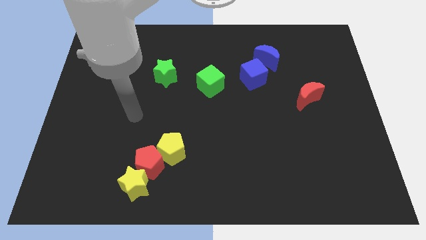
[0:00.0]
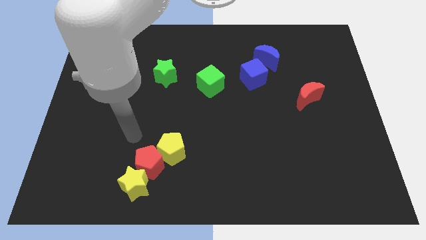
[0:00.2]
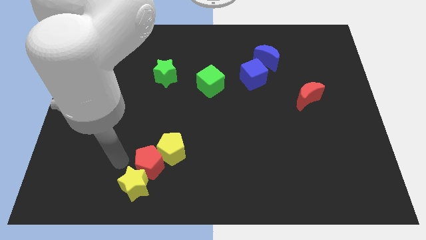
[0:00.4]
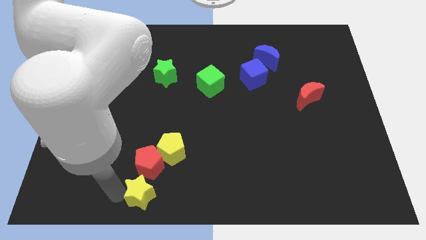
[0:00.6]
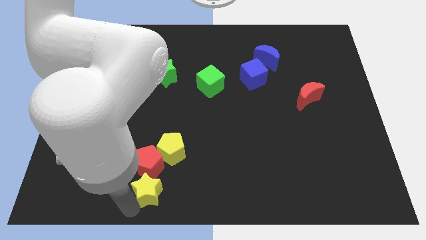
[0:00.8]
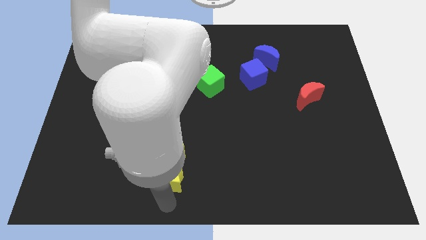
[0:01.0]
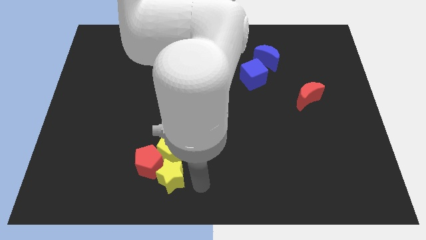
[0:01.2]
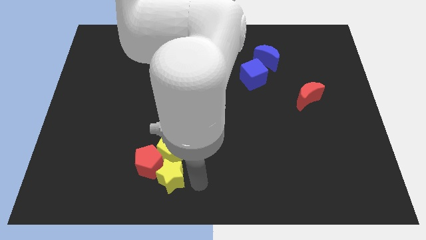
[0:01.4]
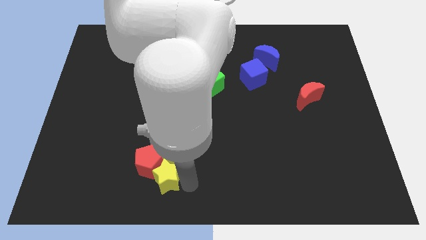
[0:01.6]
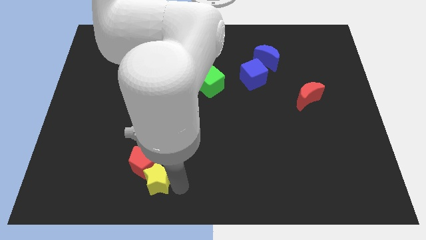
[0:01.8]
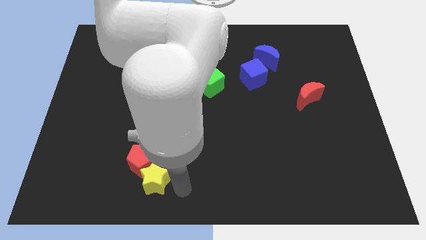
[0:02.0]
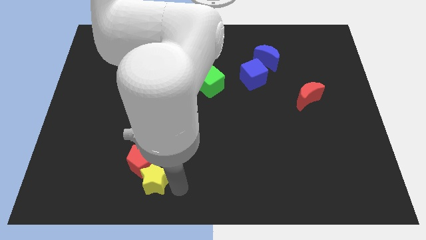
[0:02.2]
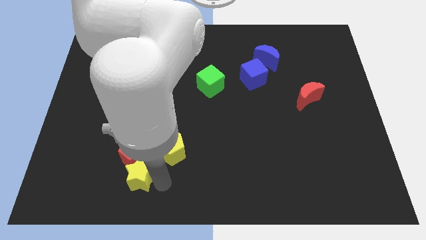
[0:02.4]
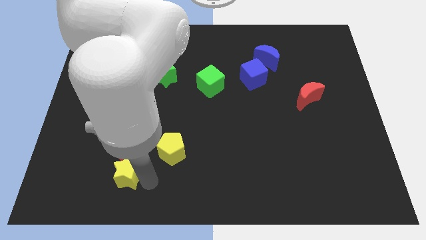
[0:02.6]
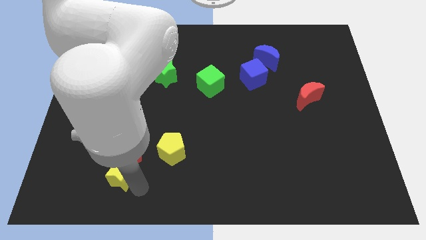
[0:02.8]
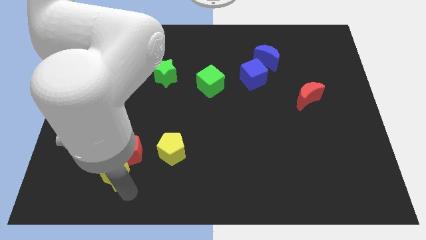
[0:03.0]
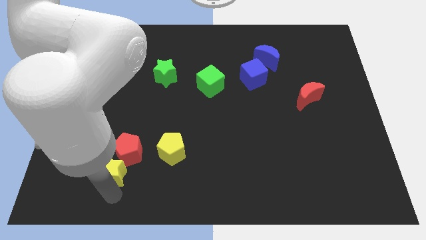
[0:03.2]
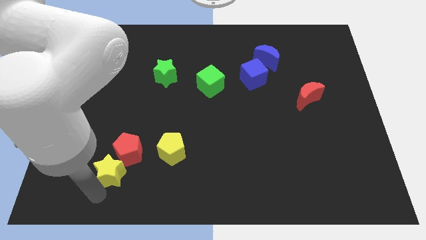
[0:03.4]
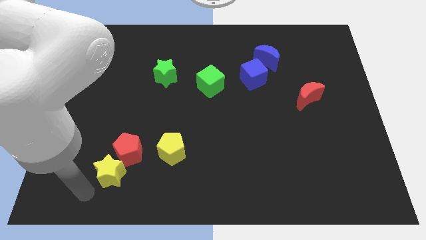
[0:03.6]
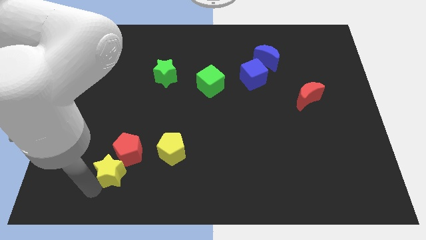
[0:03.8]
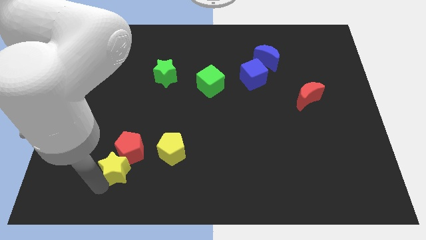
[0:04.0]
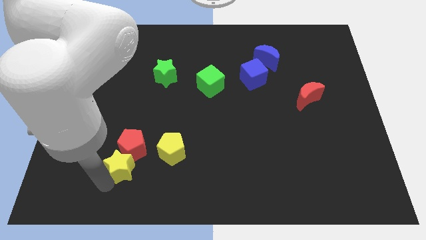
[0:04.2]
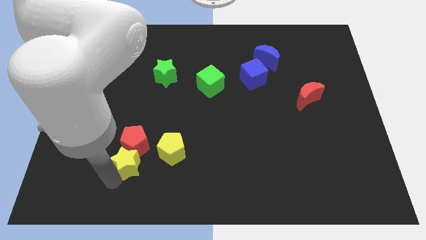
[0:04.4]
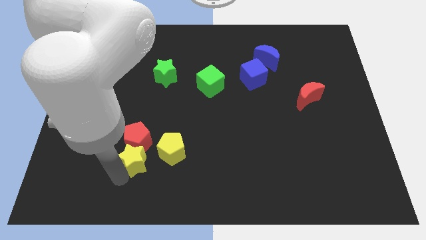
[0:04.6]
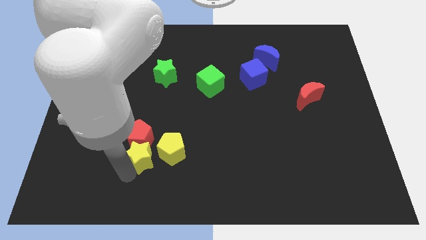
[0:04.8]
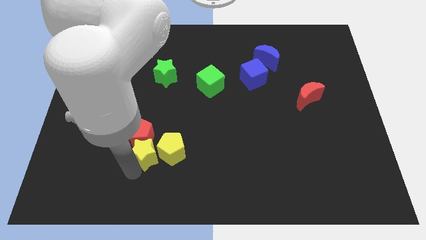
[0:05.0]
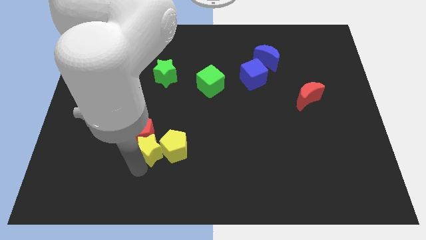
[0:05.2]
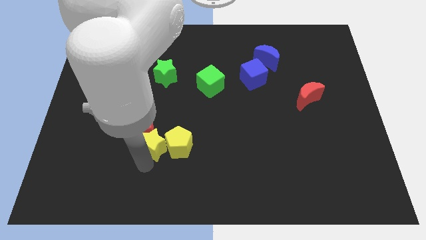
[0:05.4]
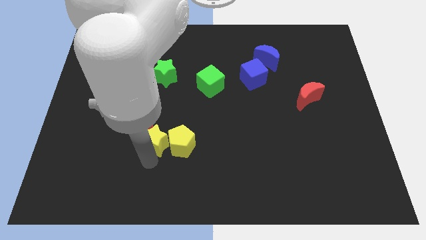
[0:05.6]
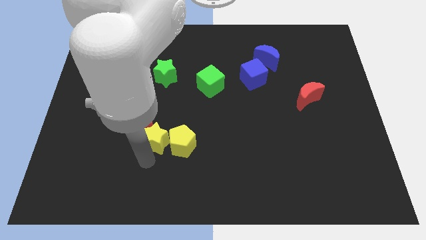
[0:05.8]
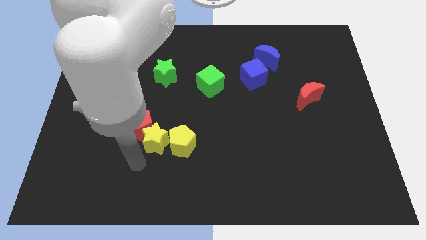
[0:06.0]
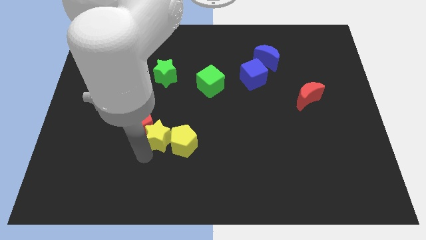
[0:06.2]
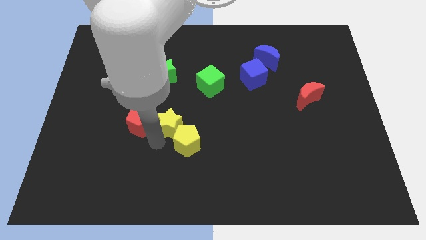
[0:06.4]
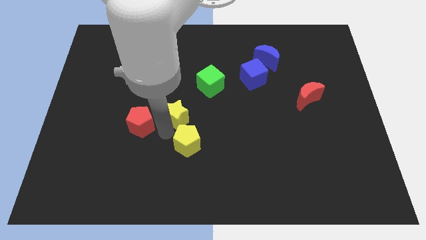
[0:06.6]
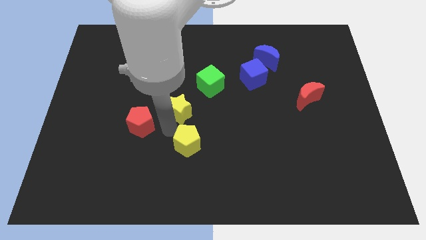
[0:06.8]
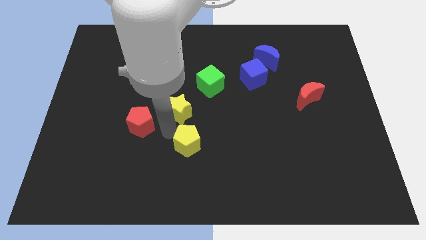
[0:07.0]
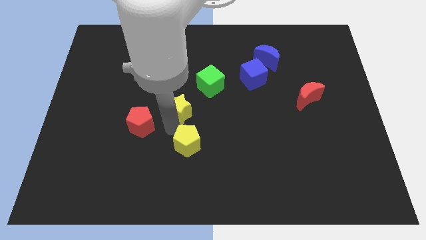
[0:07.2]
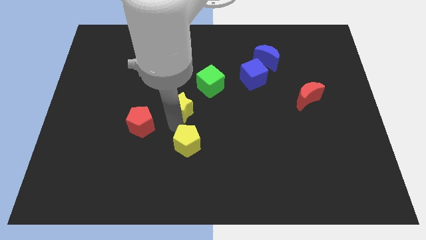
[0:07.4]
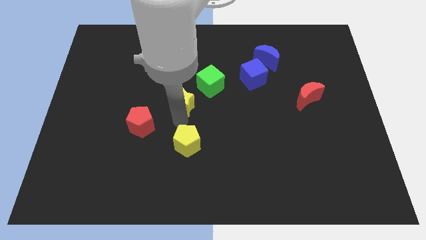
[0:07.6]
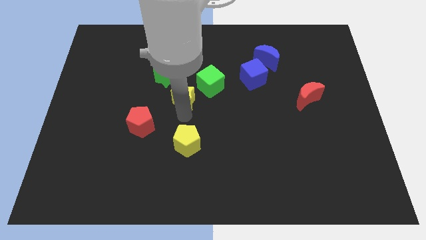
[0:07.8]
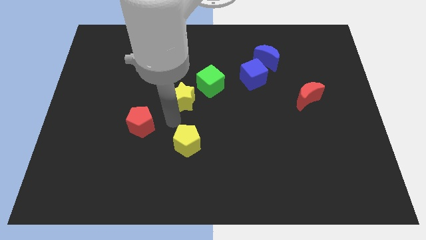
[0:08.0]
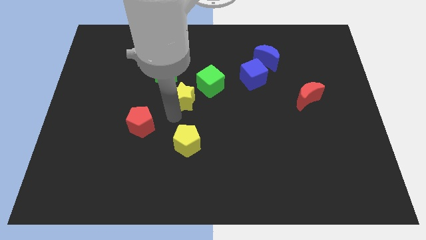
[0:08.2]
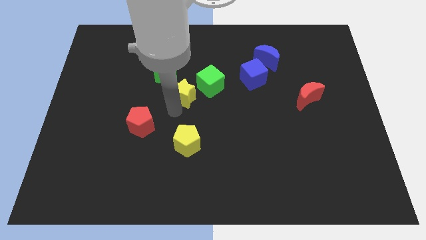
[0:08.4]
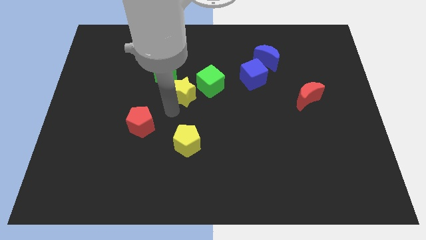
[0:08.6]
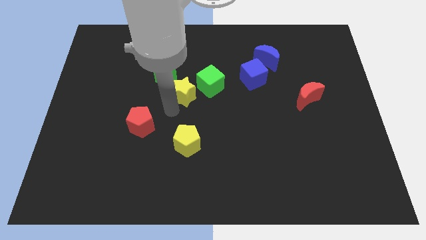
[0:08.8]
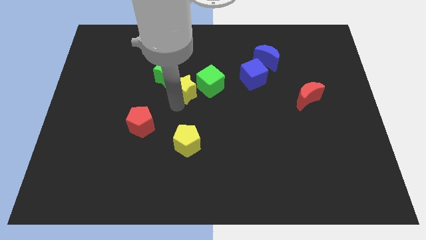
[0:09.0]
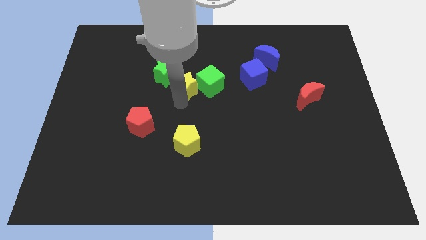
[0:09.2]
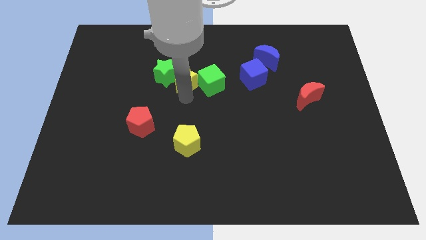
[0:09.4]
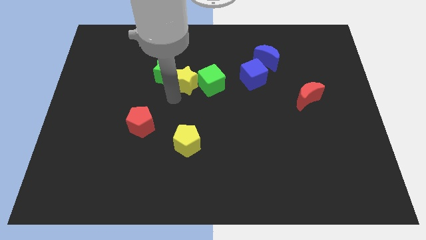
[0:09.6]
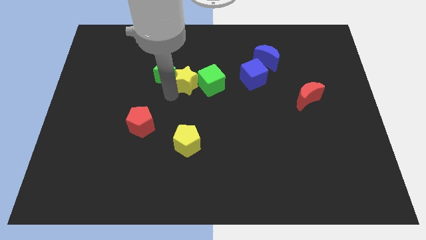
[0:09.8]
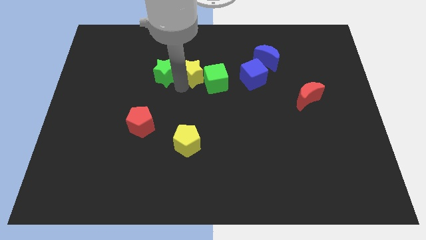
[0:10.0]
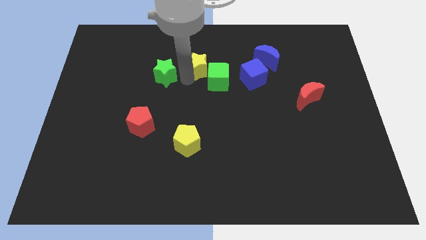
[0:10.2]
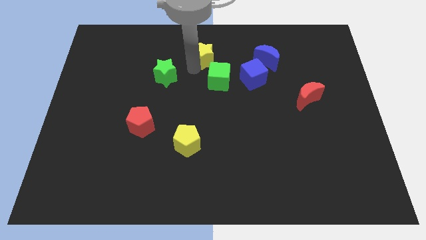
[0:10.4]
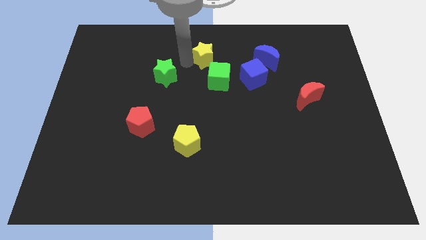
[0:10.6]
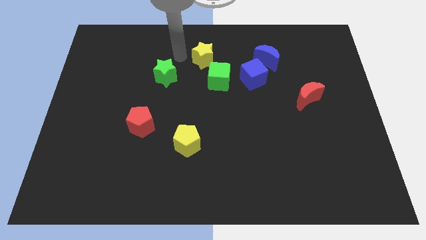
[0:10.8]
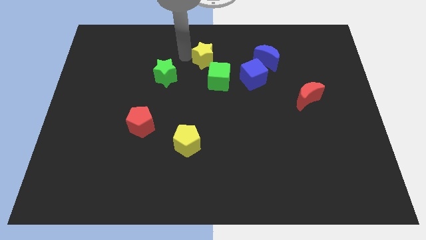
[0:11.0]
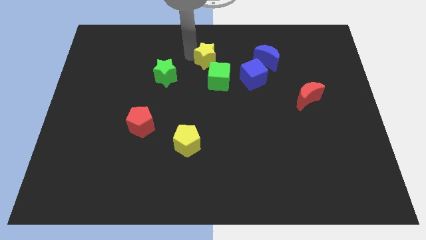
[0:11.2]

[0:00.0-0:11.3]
slide the yellow star left of the blue moon

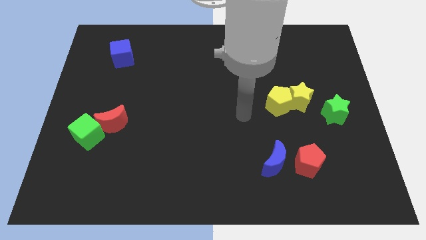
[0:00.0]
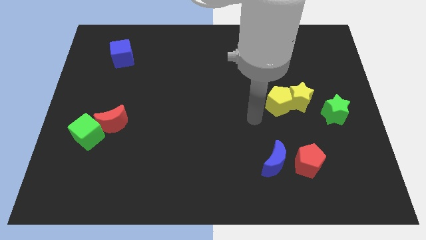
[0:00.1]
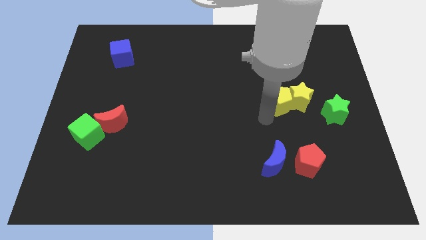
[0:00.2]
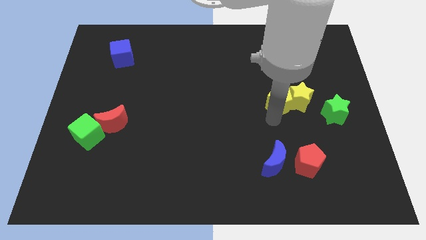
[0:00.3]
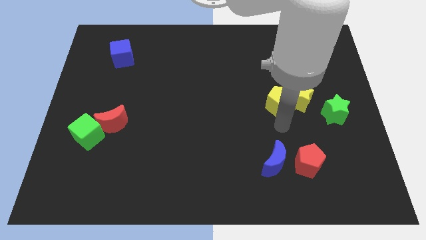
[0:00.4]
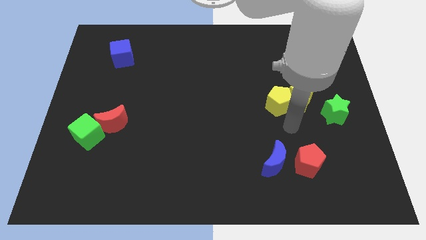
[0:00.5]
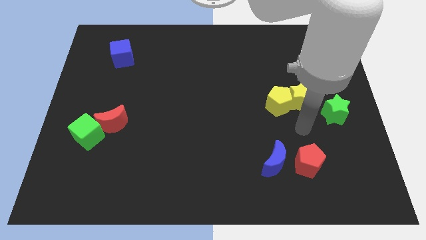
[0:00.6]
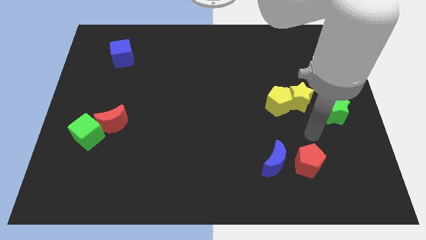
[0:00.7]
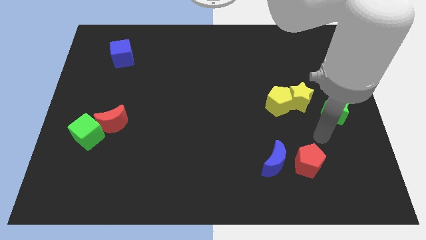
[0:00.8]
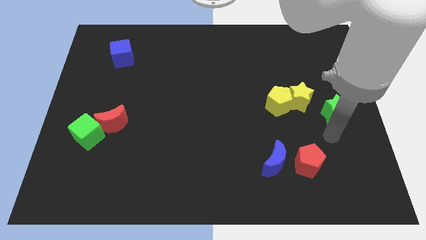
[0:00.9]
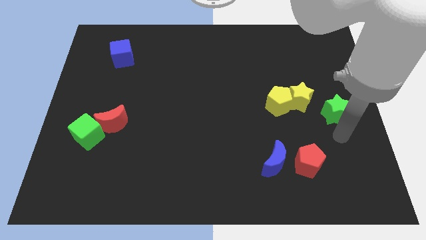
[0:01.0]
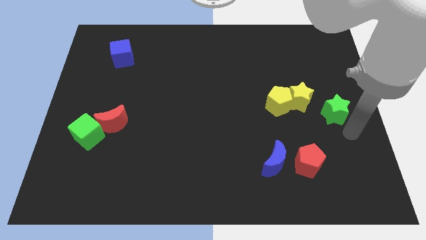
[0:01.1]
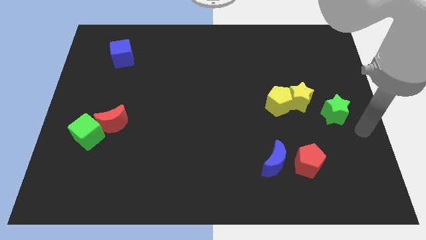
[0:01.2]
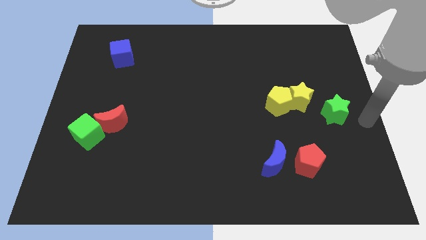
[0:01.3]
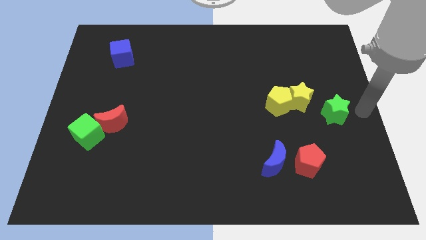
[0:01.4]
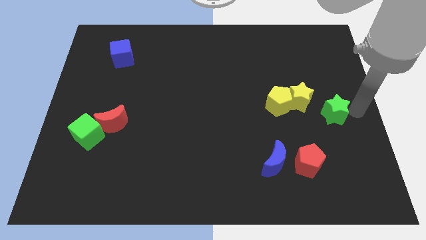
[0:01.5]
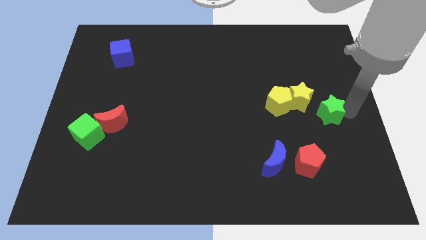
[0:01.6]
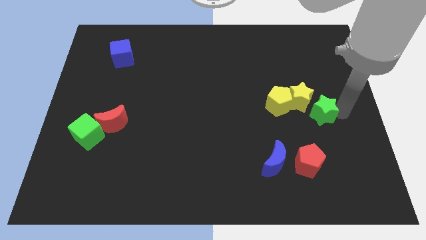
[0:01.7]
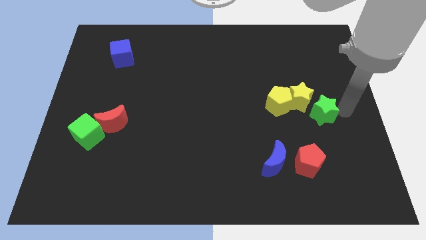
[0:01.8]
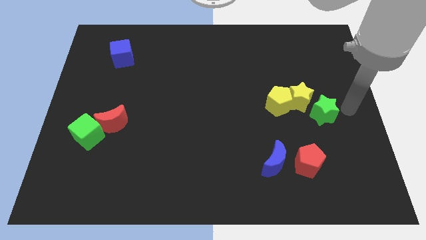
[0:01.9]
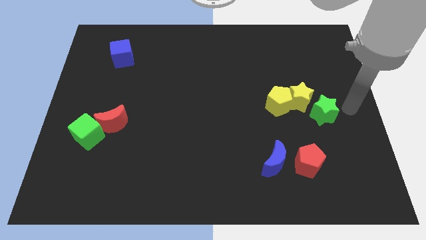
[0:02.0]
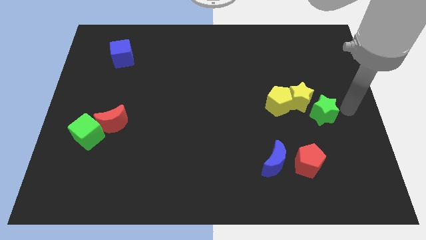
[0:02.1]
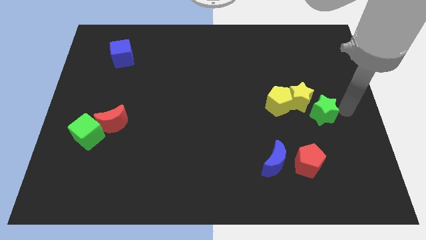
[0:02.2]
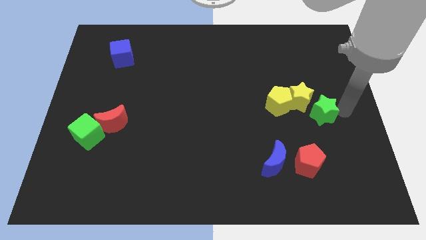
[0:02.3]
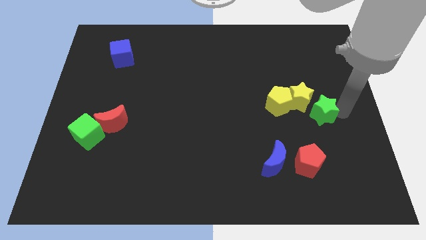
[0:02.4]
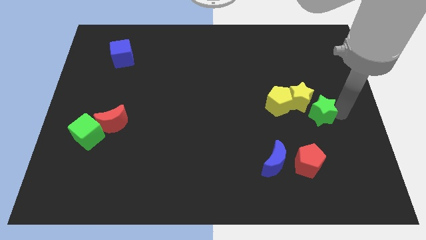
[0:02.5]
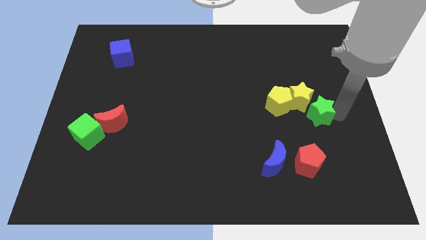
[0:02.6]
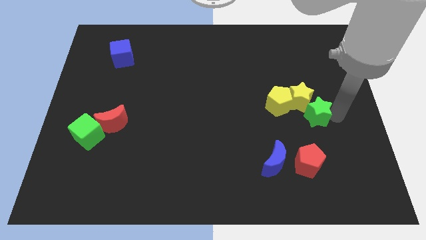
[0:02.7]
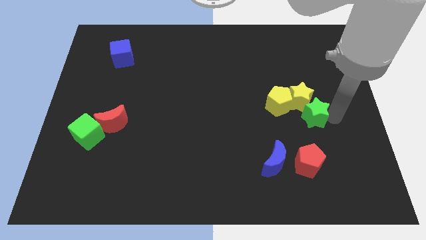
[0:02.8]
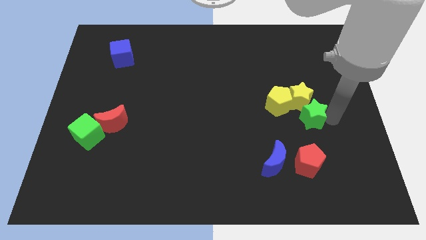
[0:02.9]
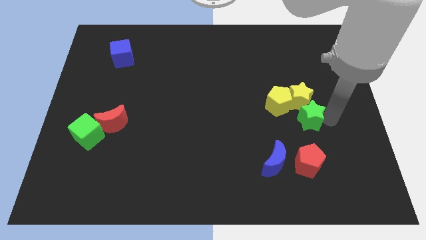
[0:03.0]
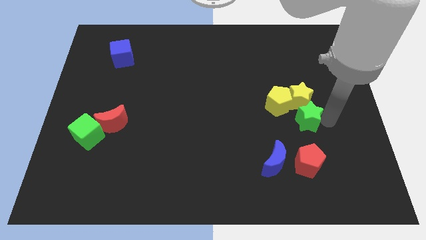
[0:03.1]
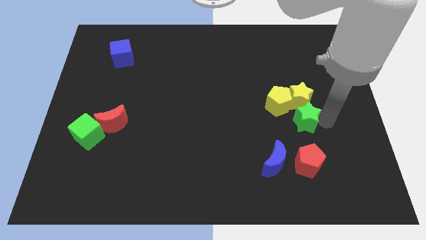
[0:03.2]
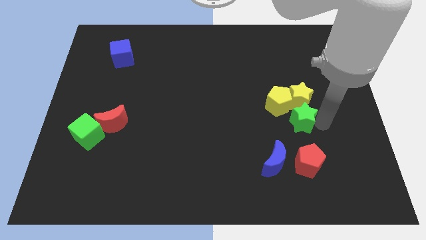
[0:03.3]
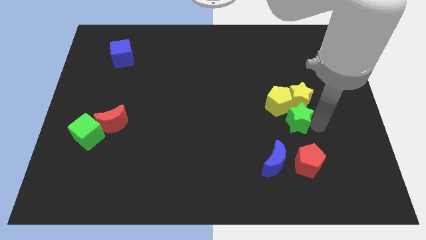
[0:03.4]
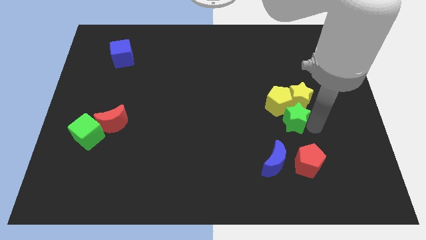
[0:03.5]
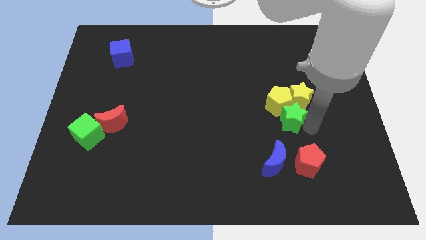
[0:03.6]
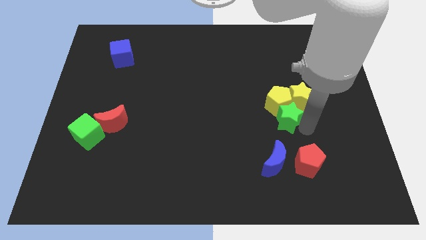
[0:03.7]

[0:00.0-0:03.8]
put the green star to the bottom left of the yellow pentagon
